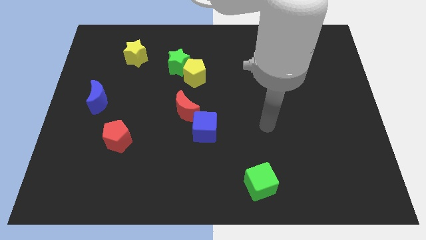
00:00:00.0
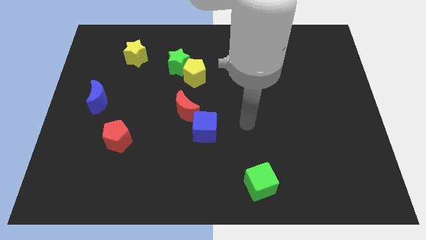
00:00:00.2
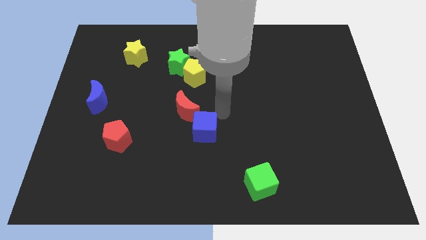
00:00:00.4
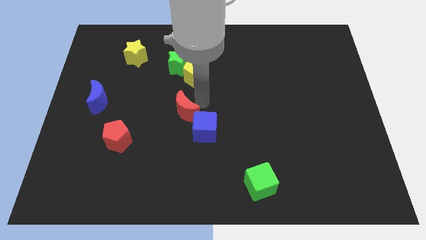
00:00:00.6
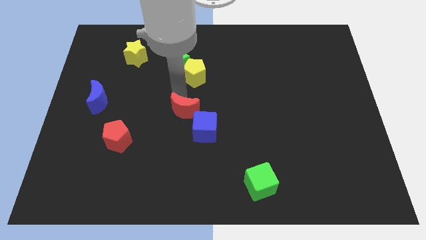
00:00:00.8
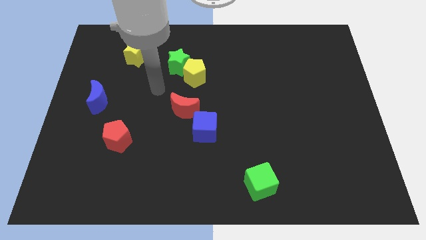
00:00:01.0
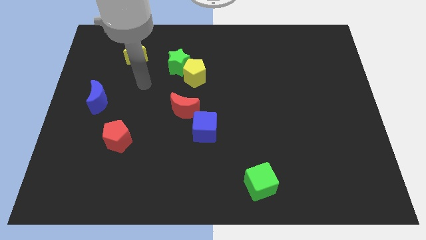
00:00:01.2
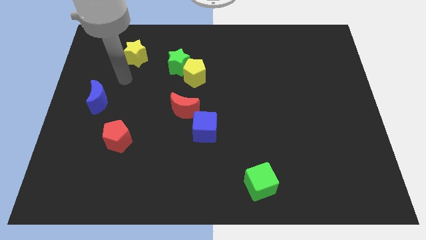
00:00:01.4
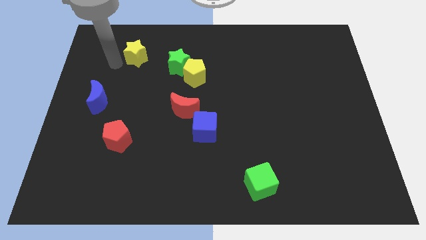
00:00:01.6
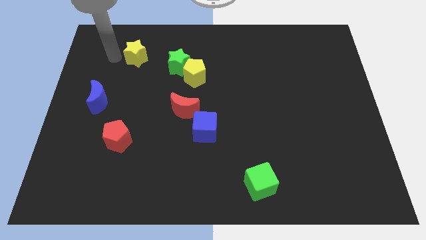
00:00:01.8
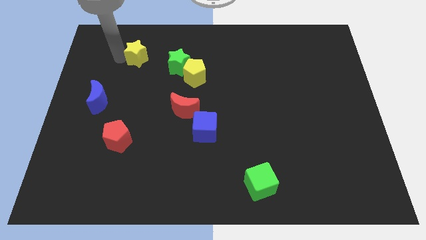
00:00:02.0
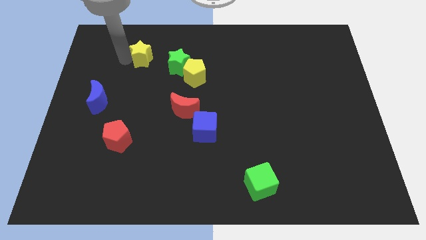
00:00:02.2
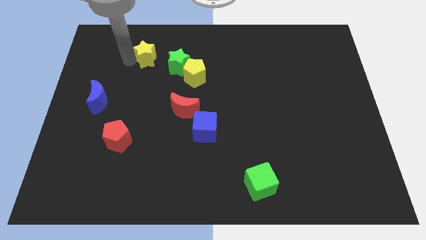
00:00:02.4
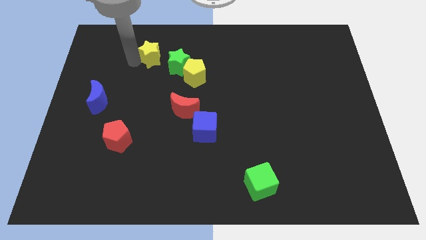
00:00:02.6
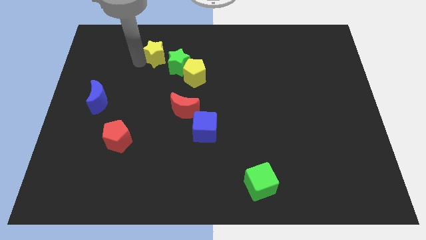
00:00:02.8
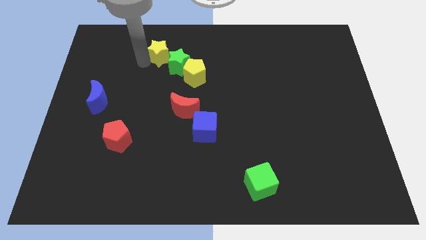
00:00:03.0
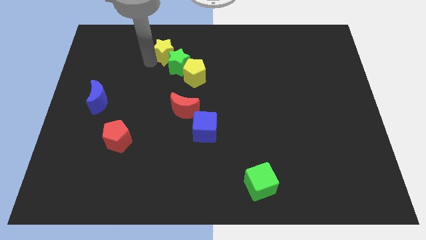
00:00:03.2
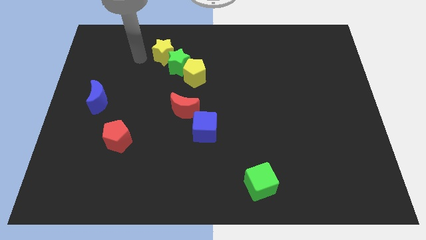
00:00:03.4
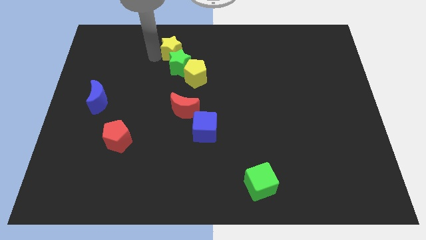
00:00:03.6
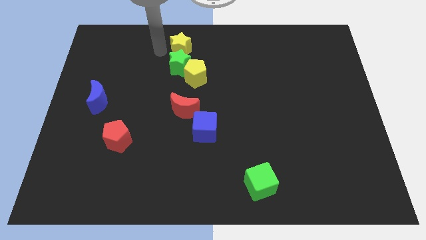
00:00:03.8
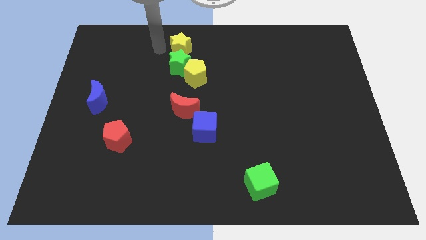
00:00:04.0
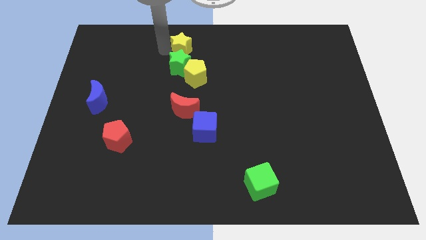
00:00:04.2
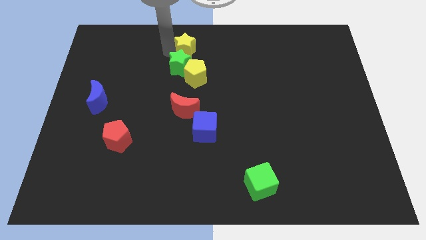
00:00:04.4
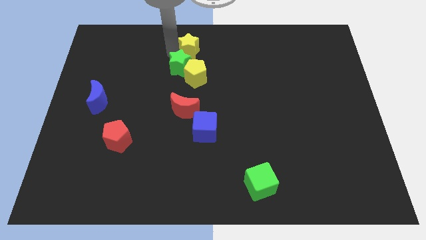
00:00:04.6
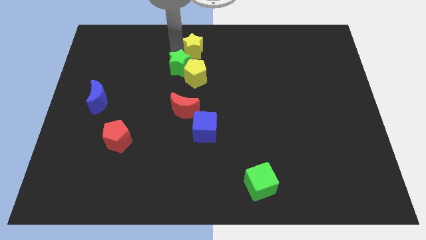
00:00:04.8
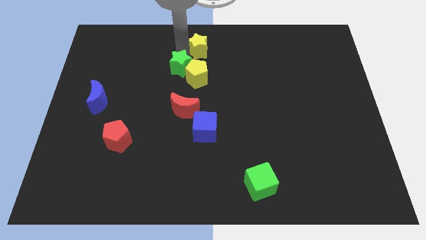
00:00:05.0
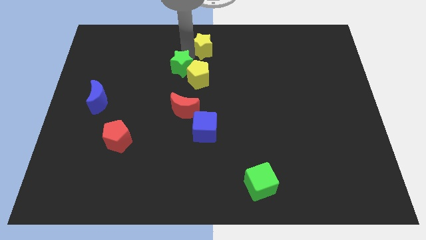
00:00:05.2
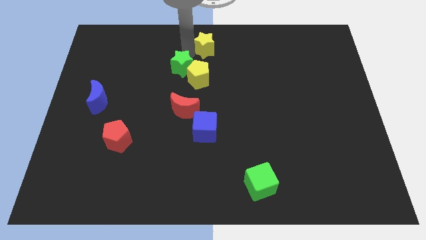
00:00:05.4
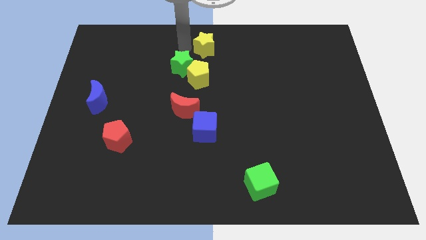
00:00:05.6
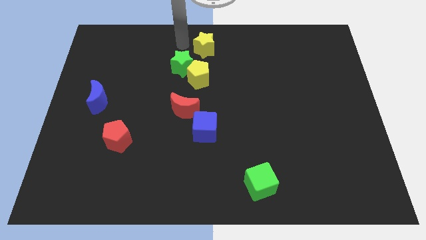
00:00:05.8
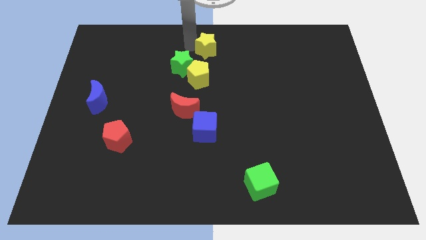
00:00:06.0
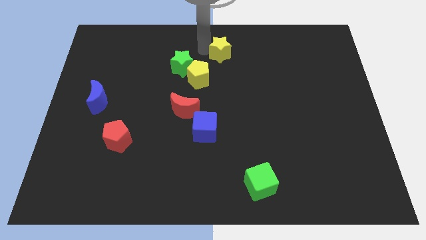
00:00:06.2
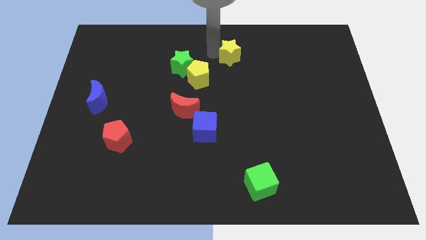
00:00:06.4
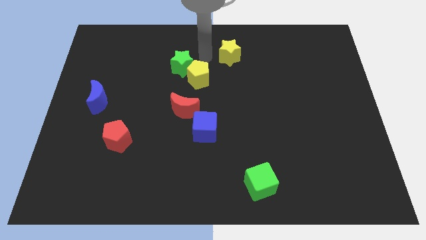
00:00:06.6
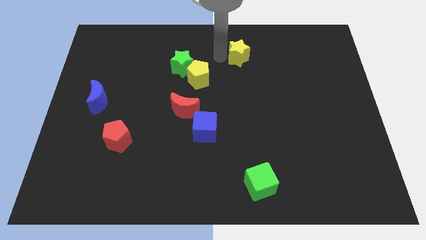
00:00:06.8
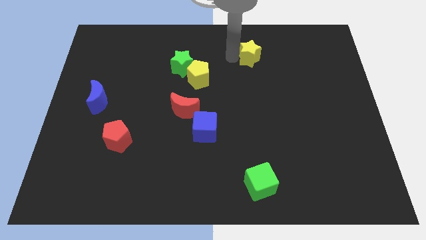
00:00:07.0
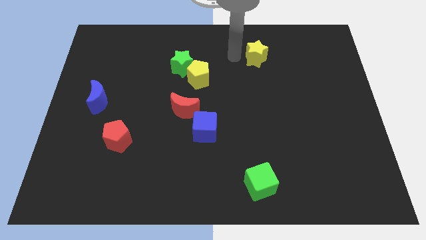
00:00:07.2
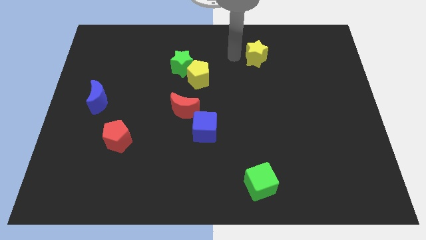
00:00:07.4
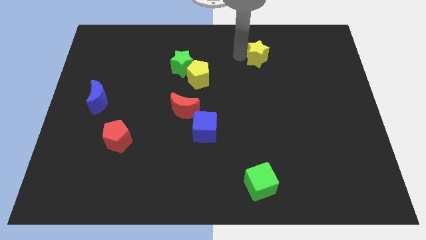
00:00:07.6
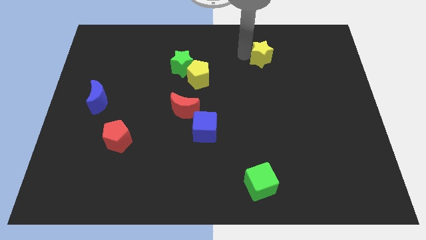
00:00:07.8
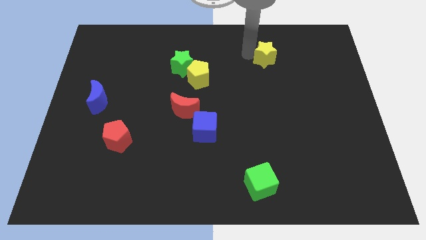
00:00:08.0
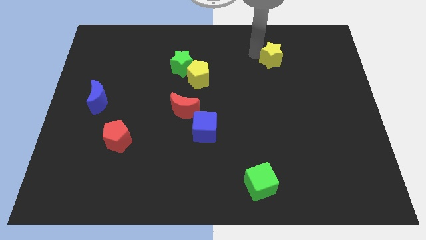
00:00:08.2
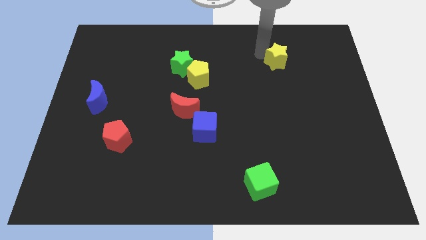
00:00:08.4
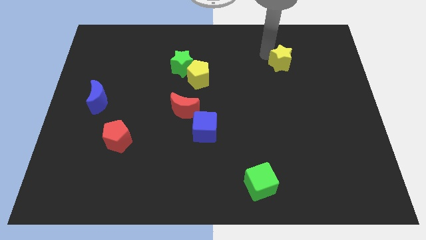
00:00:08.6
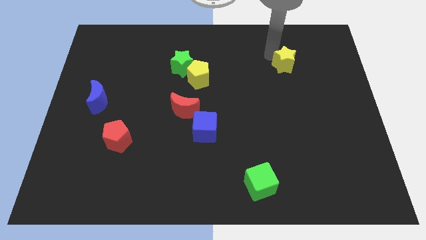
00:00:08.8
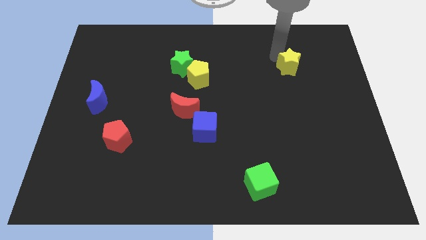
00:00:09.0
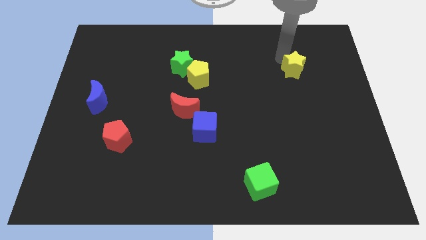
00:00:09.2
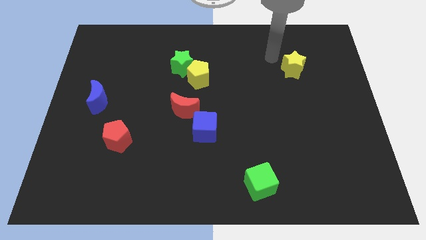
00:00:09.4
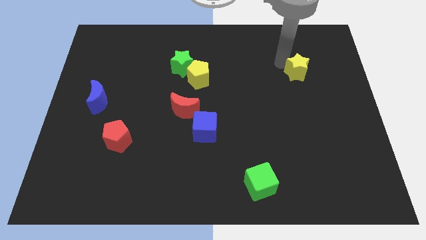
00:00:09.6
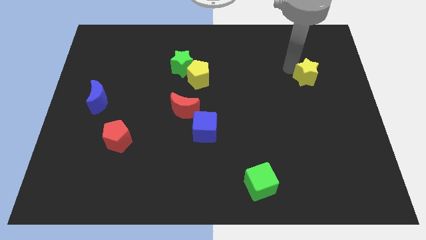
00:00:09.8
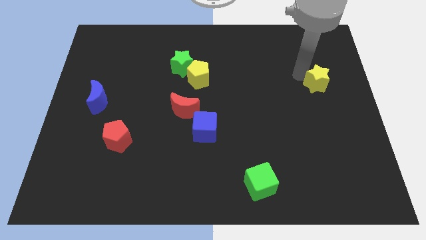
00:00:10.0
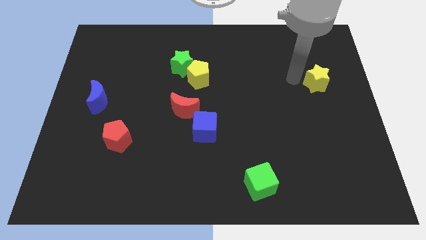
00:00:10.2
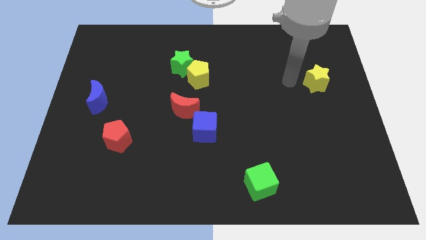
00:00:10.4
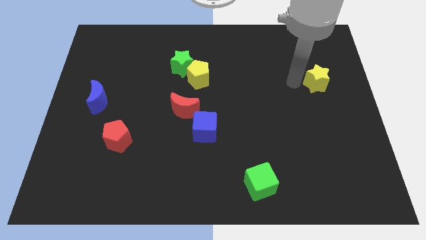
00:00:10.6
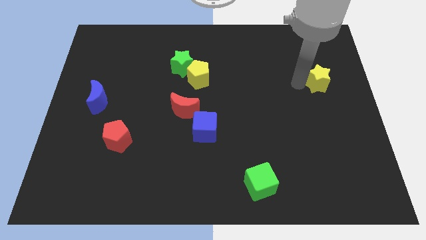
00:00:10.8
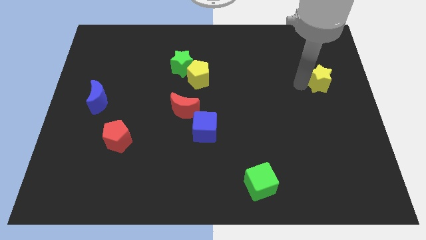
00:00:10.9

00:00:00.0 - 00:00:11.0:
put the yellow star to the right side of the board
